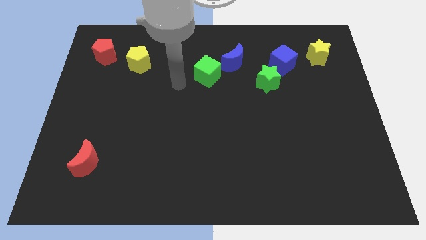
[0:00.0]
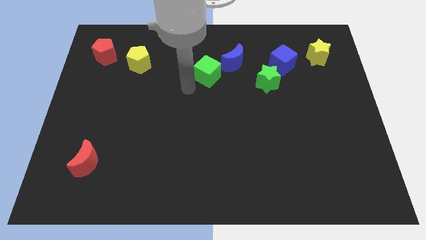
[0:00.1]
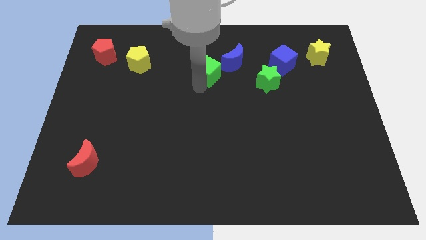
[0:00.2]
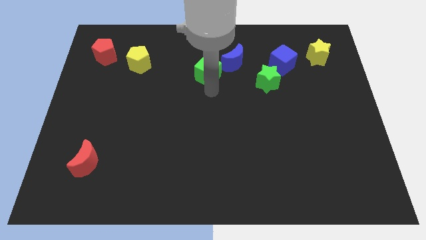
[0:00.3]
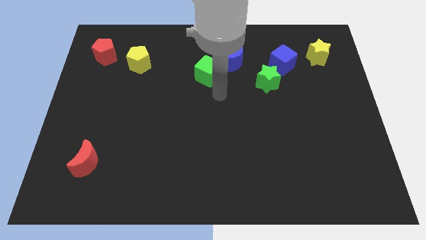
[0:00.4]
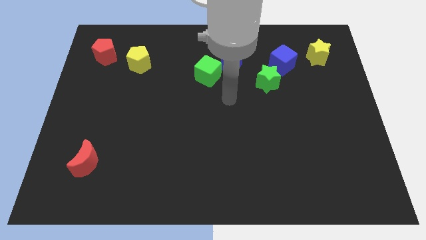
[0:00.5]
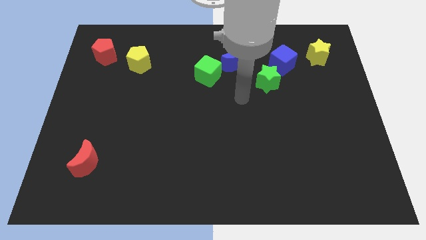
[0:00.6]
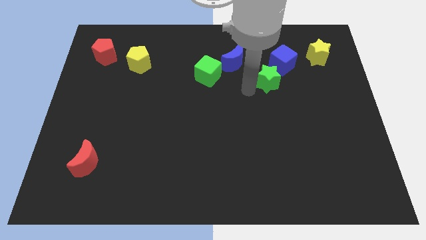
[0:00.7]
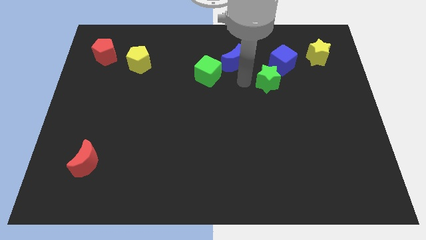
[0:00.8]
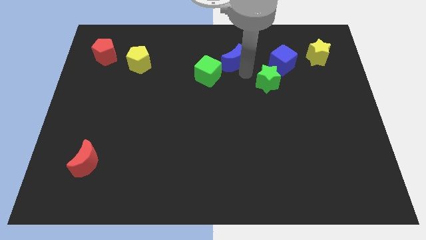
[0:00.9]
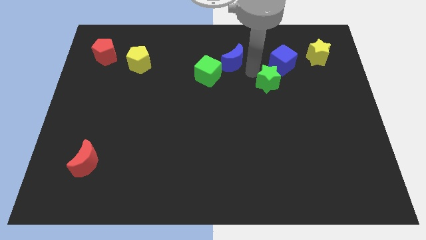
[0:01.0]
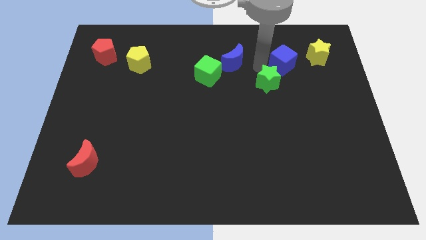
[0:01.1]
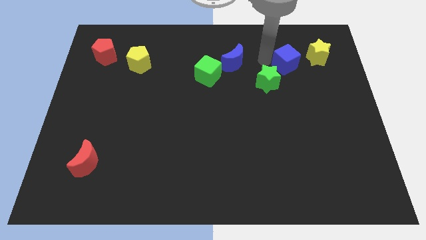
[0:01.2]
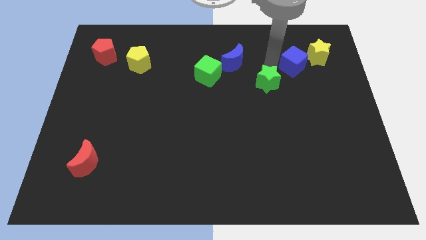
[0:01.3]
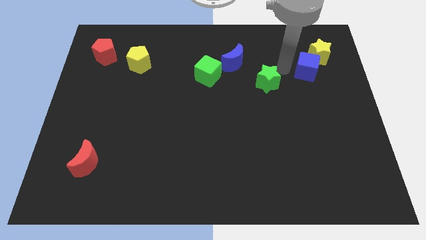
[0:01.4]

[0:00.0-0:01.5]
separate the green star from the blue cube

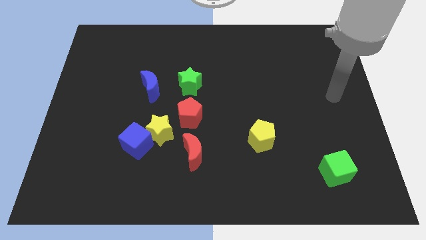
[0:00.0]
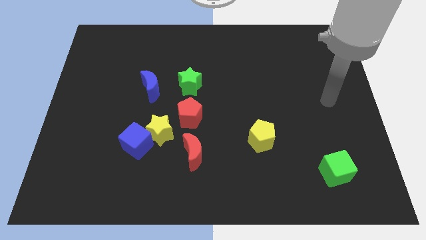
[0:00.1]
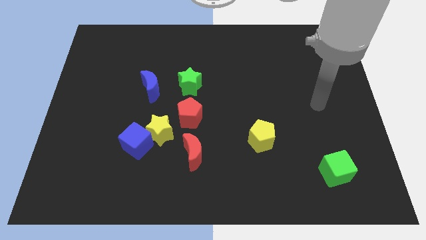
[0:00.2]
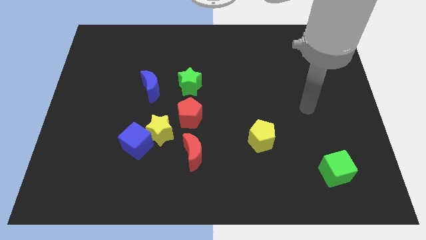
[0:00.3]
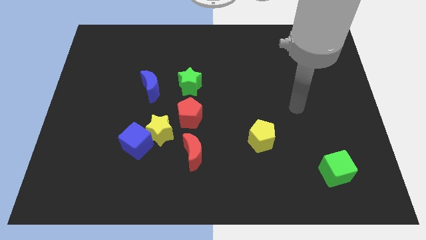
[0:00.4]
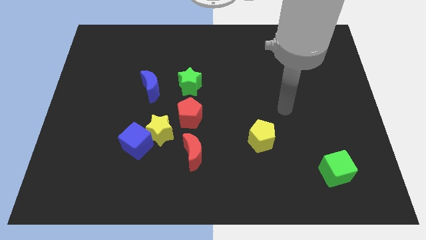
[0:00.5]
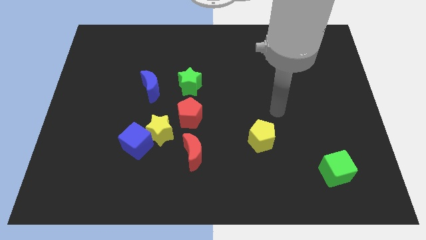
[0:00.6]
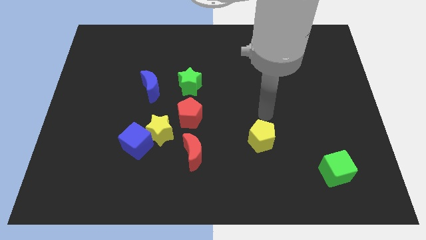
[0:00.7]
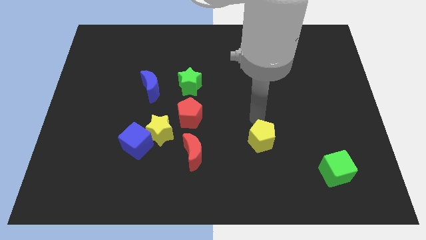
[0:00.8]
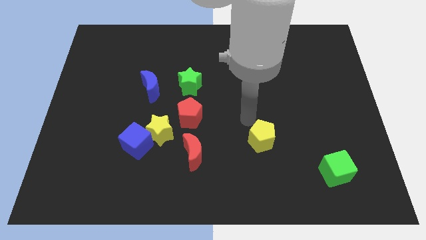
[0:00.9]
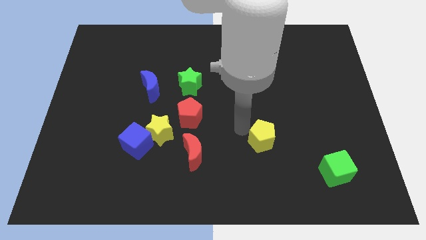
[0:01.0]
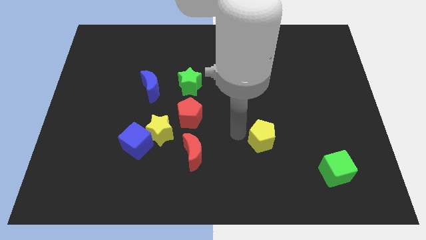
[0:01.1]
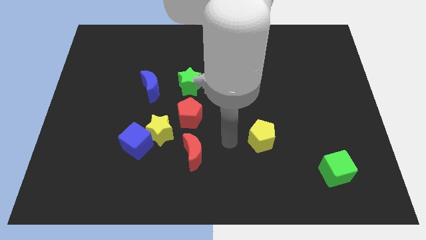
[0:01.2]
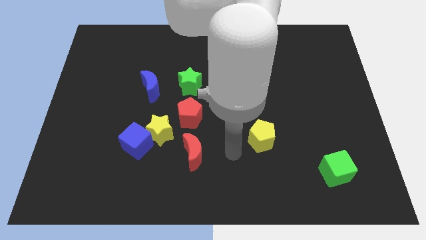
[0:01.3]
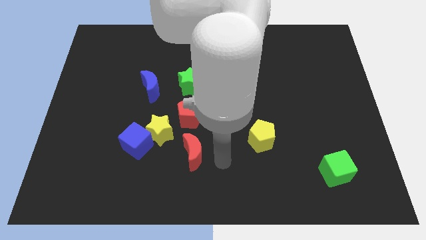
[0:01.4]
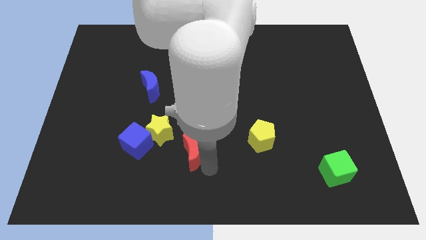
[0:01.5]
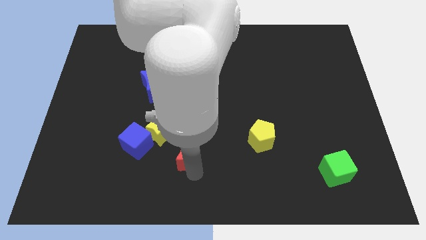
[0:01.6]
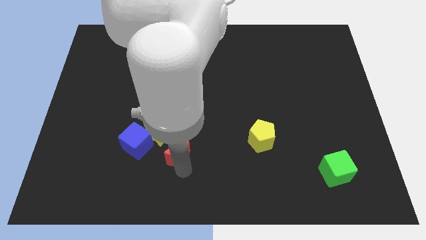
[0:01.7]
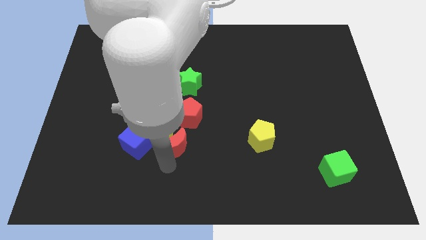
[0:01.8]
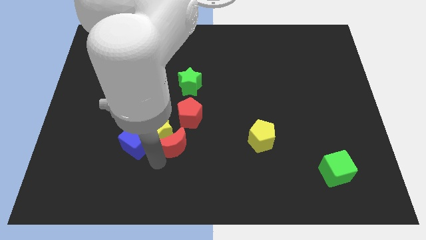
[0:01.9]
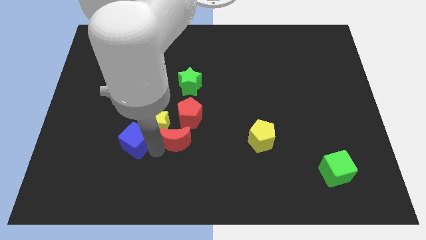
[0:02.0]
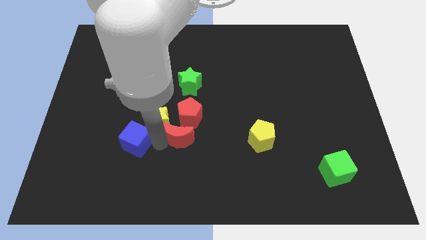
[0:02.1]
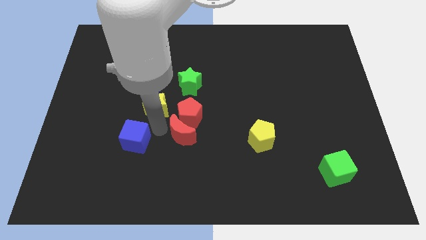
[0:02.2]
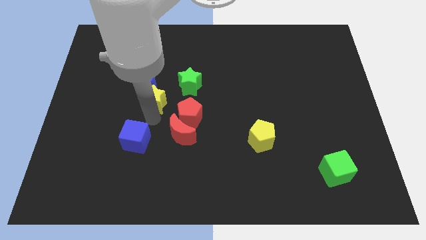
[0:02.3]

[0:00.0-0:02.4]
separate the blue cube from the yellow star

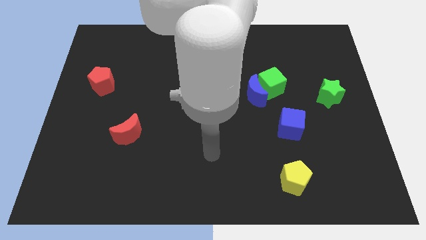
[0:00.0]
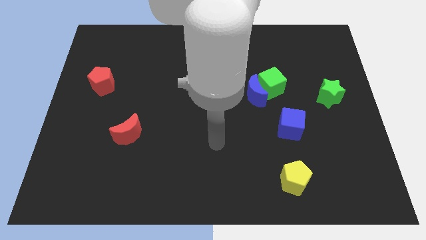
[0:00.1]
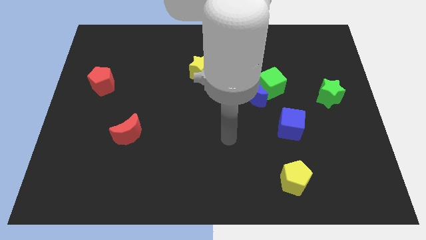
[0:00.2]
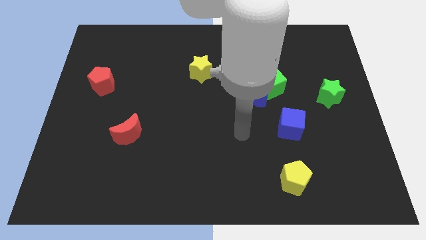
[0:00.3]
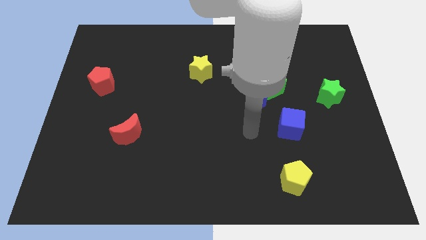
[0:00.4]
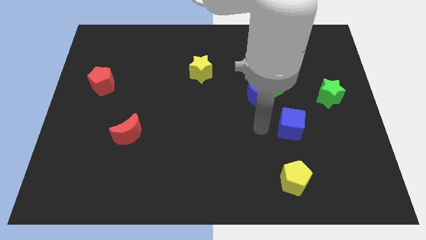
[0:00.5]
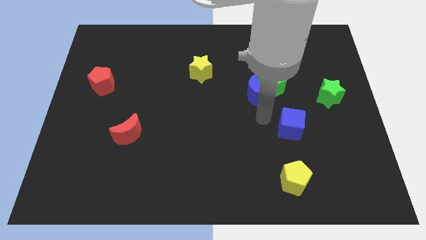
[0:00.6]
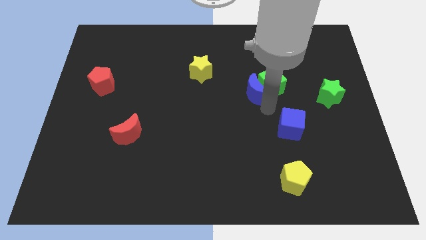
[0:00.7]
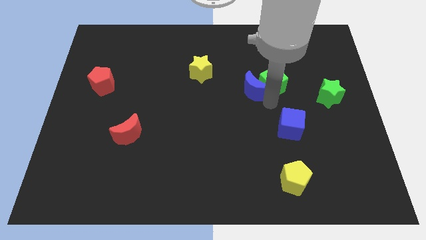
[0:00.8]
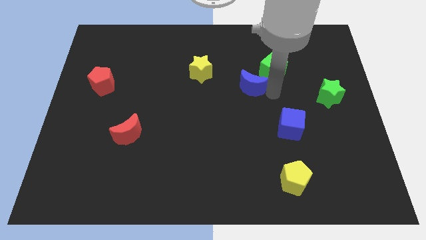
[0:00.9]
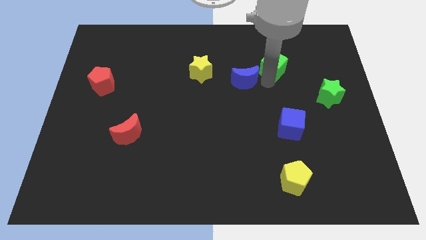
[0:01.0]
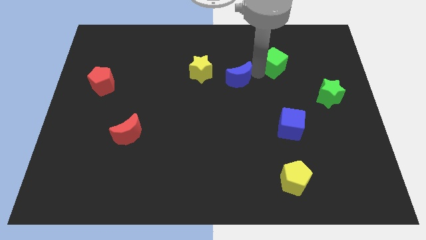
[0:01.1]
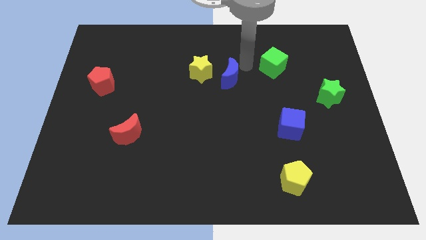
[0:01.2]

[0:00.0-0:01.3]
pull the blue moon apart from the green cube

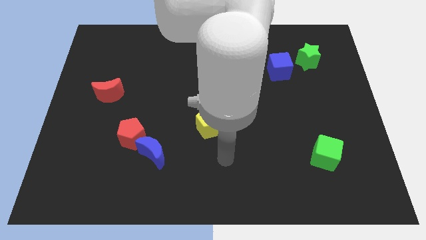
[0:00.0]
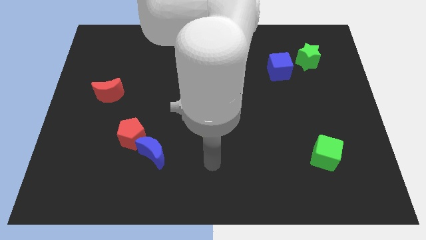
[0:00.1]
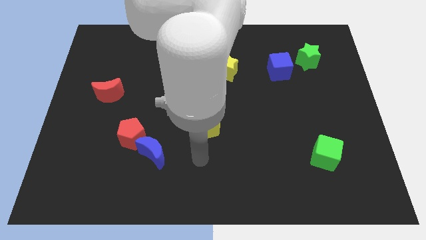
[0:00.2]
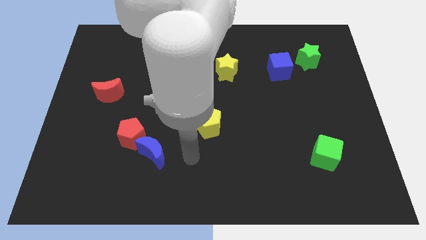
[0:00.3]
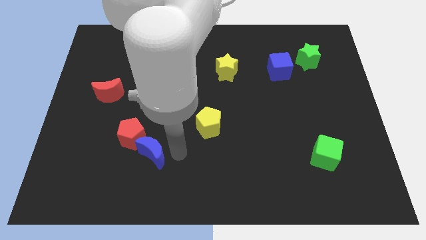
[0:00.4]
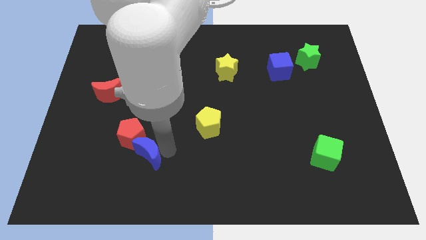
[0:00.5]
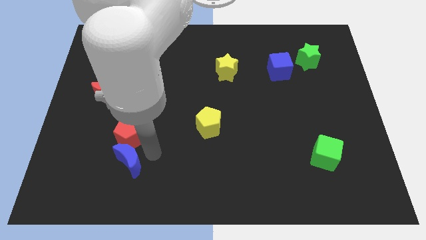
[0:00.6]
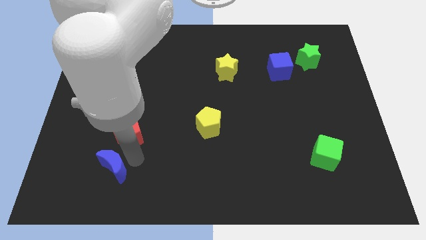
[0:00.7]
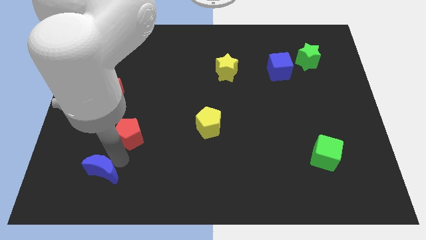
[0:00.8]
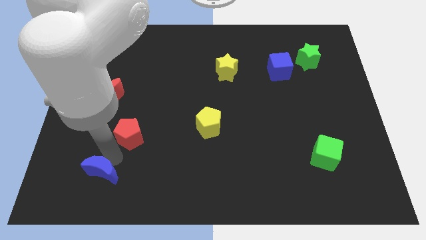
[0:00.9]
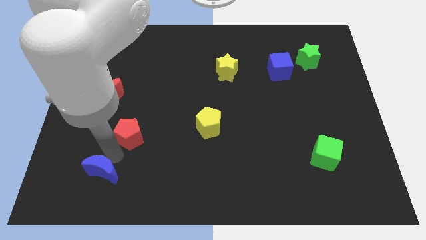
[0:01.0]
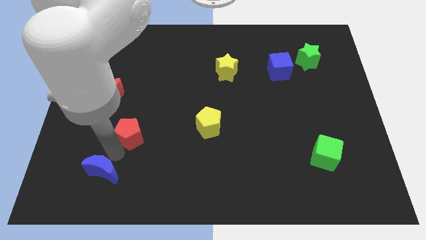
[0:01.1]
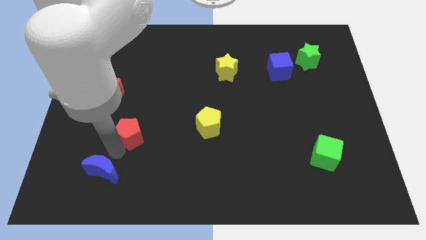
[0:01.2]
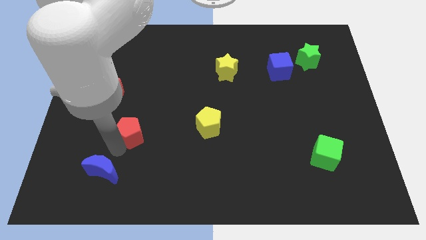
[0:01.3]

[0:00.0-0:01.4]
move the red pentagon away from the blue moon
